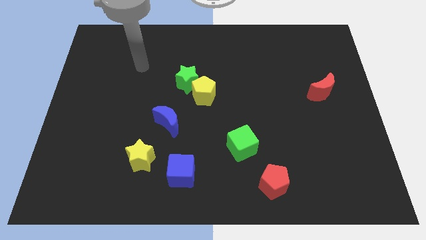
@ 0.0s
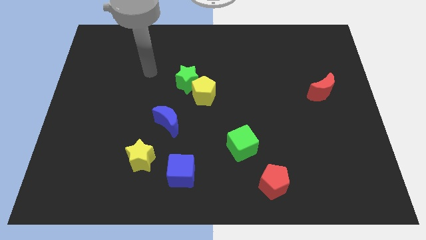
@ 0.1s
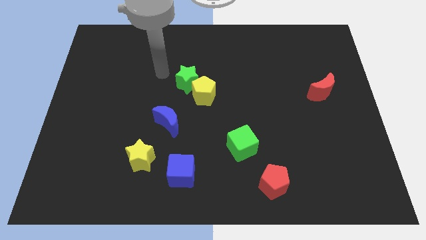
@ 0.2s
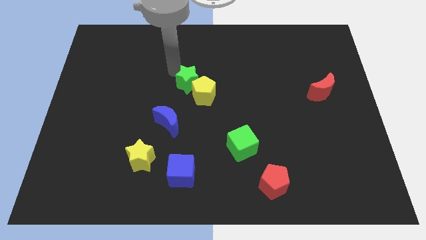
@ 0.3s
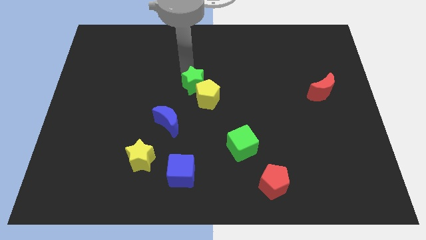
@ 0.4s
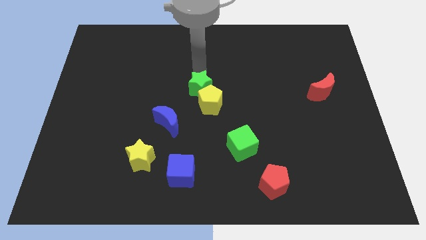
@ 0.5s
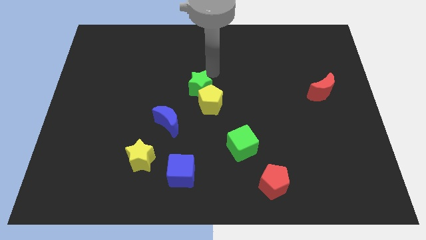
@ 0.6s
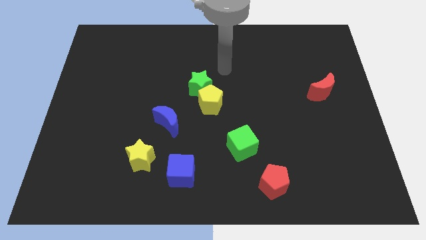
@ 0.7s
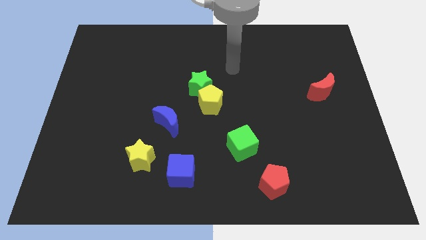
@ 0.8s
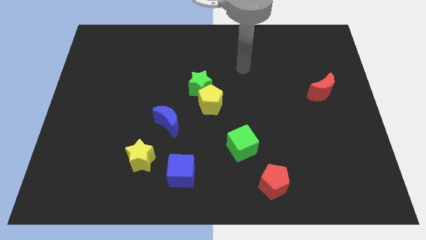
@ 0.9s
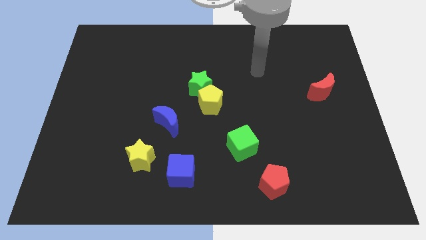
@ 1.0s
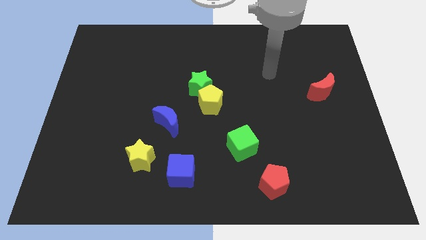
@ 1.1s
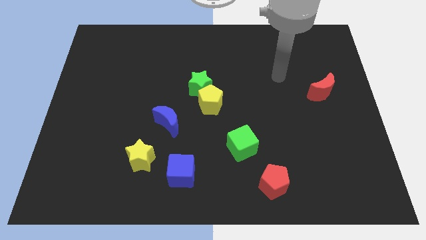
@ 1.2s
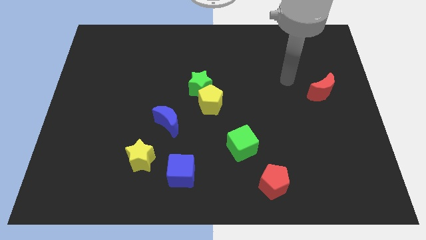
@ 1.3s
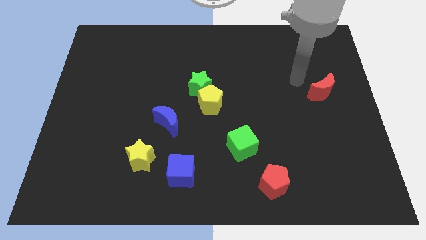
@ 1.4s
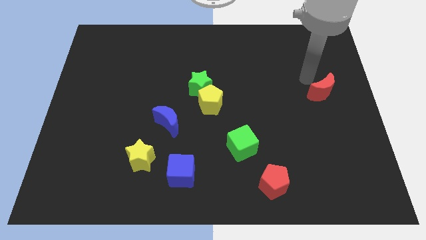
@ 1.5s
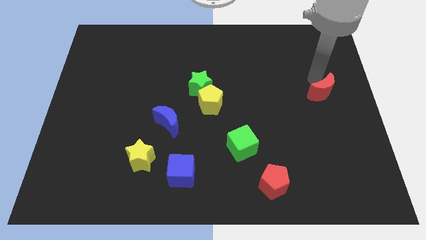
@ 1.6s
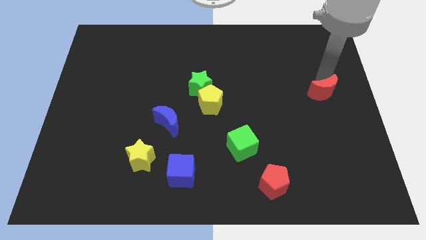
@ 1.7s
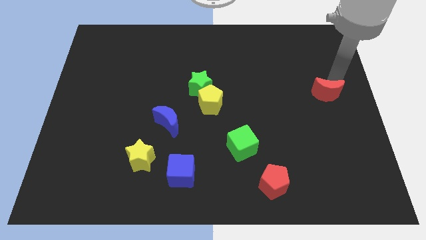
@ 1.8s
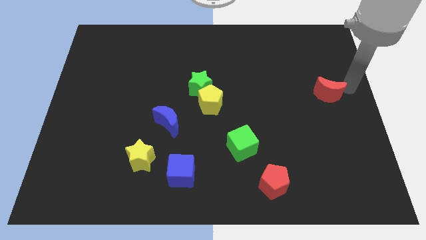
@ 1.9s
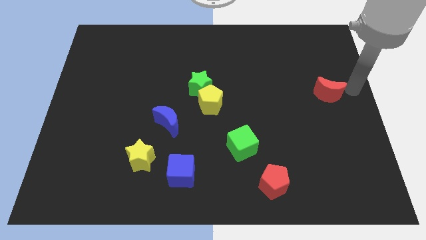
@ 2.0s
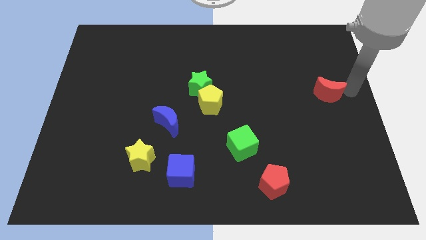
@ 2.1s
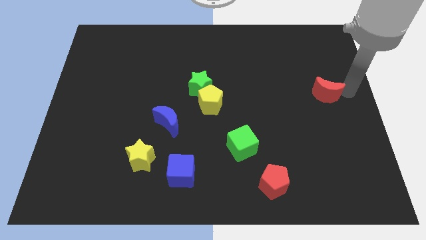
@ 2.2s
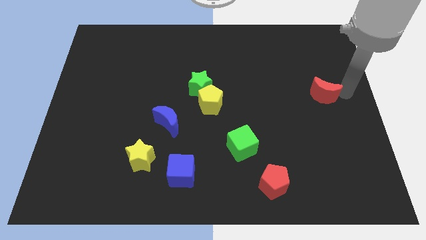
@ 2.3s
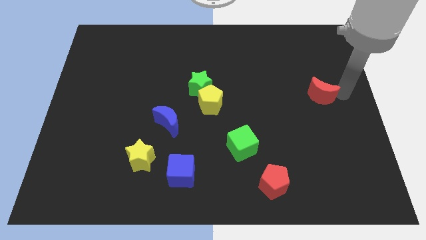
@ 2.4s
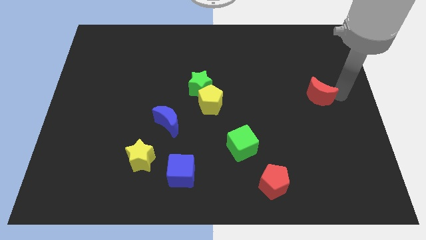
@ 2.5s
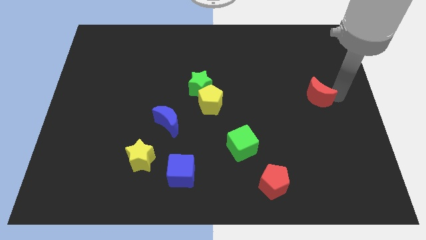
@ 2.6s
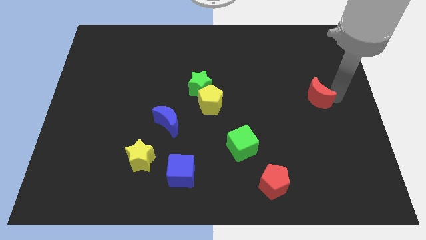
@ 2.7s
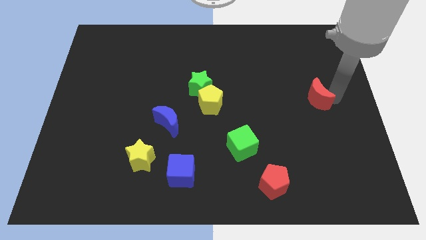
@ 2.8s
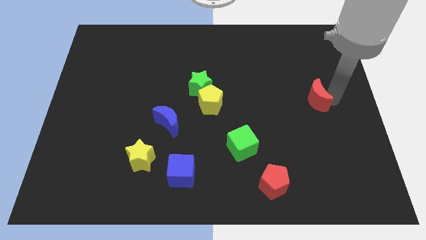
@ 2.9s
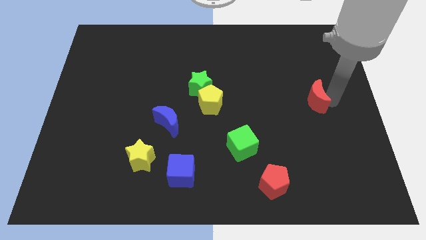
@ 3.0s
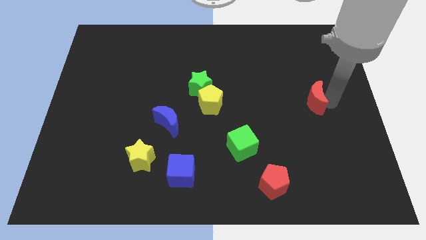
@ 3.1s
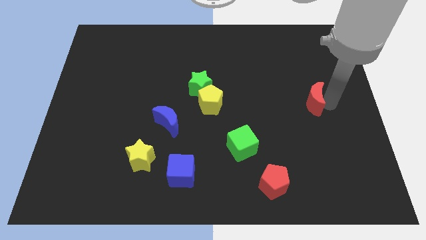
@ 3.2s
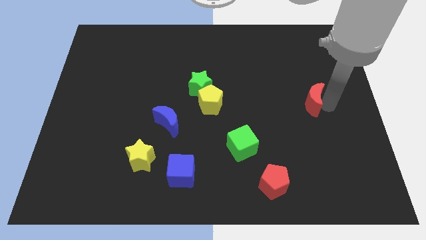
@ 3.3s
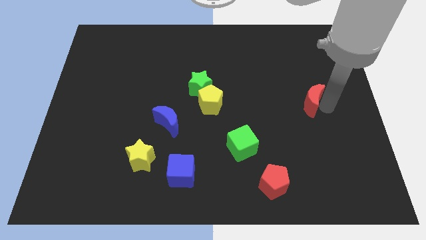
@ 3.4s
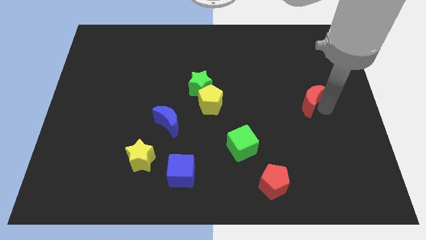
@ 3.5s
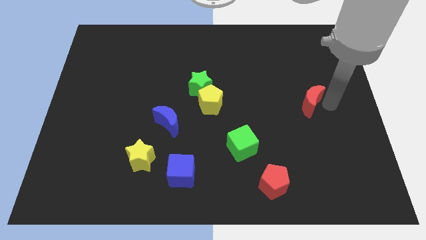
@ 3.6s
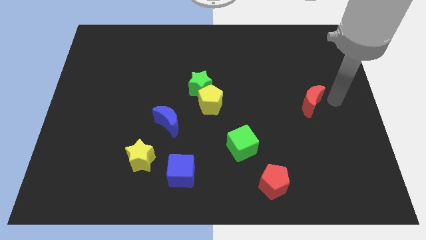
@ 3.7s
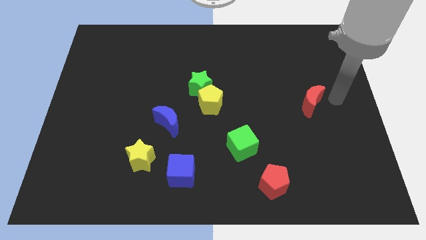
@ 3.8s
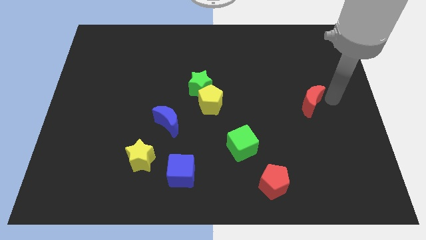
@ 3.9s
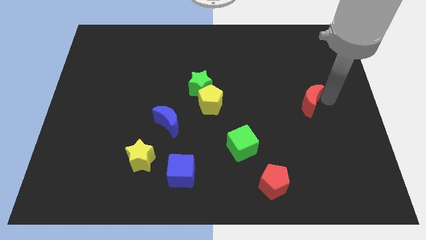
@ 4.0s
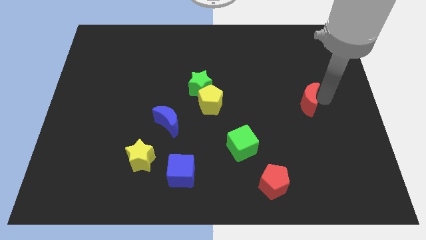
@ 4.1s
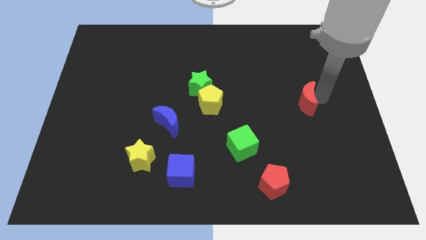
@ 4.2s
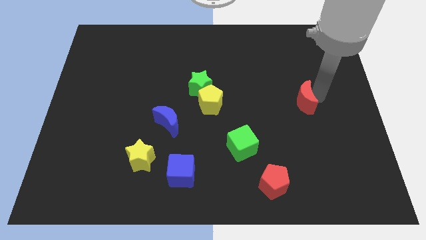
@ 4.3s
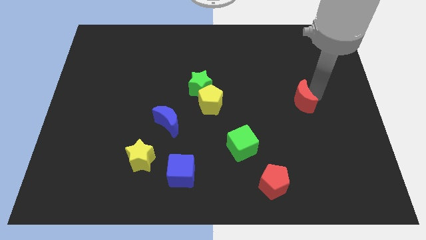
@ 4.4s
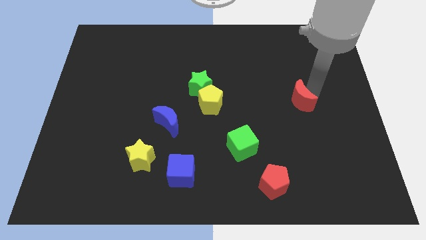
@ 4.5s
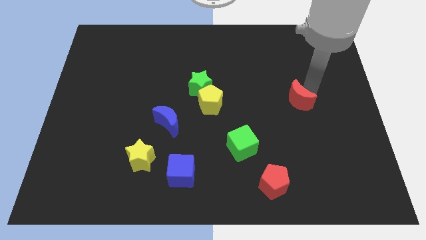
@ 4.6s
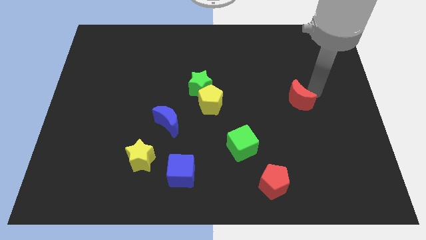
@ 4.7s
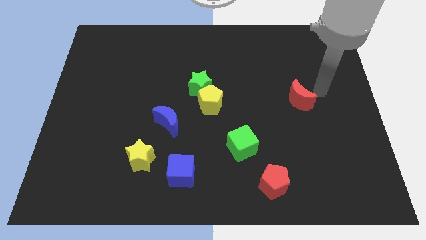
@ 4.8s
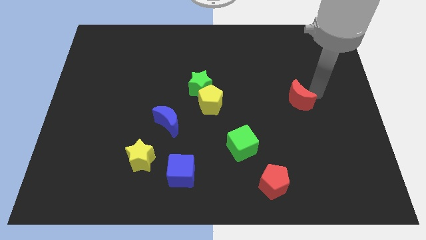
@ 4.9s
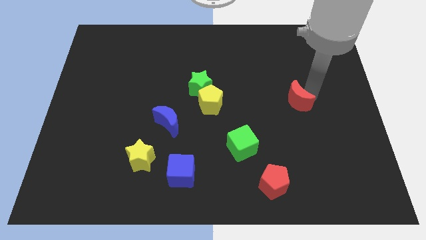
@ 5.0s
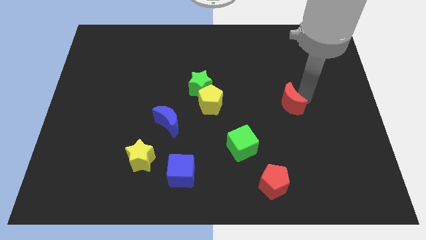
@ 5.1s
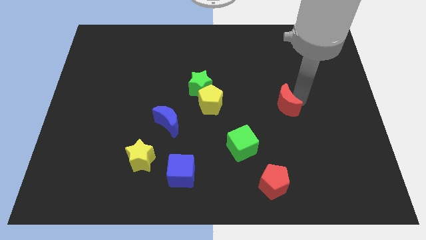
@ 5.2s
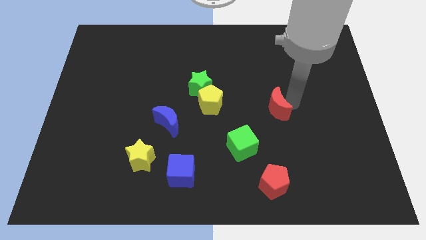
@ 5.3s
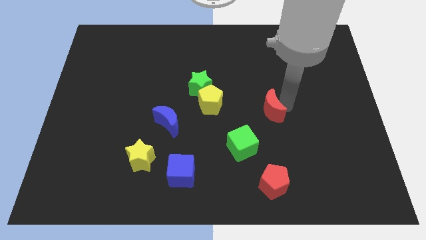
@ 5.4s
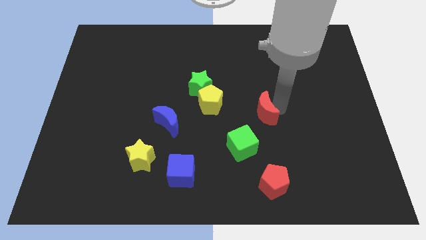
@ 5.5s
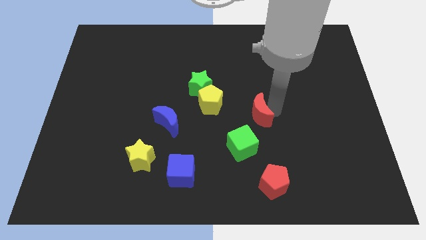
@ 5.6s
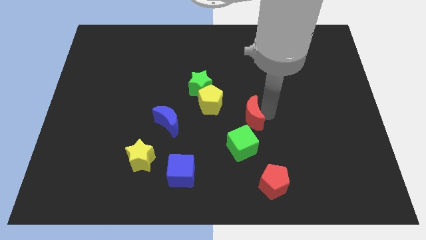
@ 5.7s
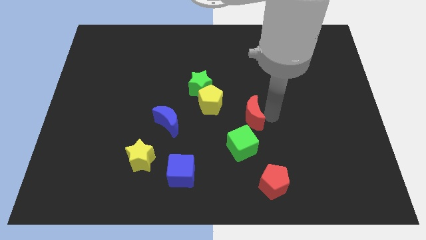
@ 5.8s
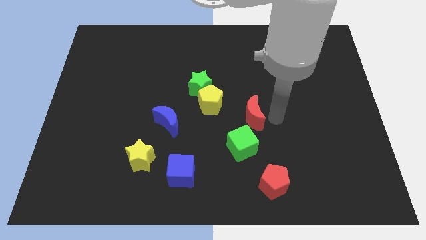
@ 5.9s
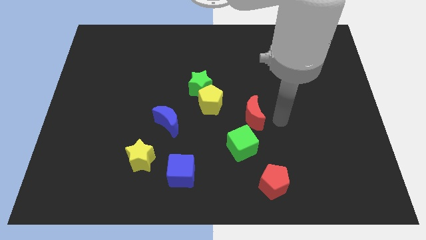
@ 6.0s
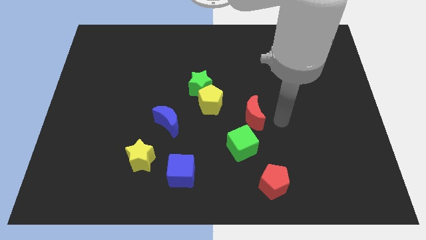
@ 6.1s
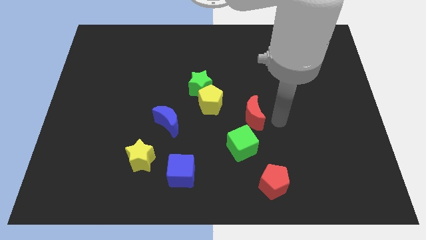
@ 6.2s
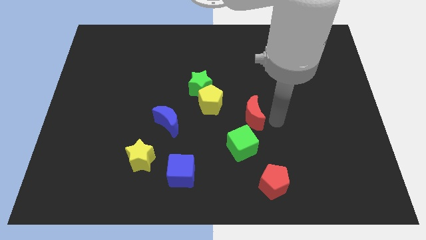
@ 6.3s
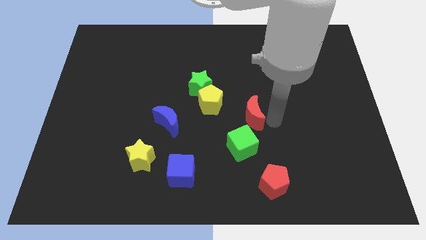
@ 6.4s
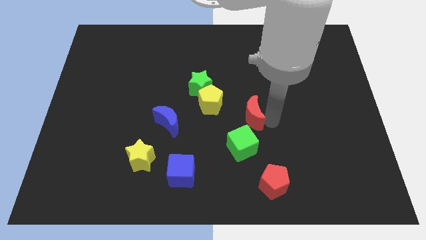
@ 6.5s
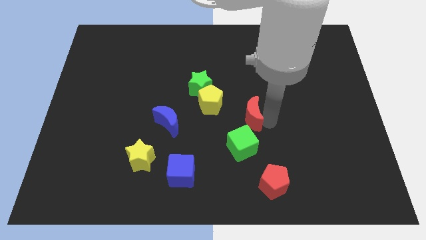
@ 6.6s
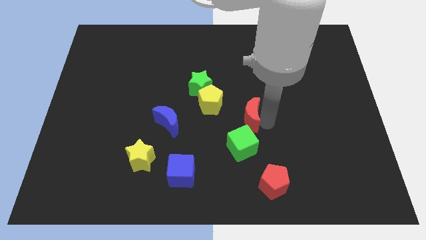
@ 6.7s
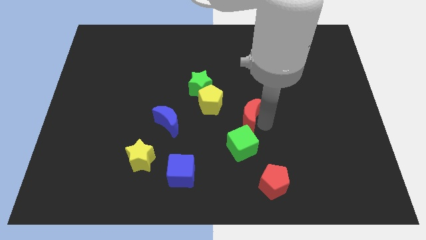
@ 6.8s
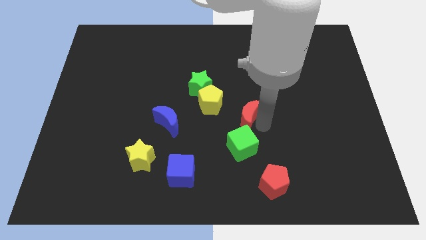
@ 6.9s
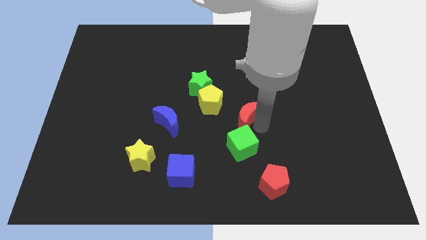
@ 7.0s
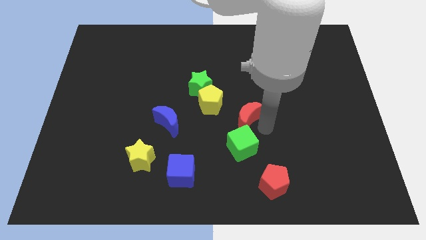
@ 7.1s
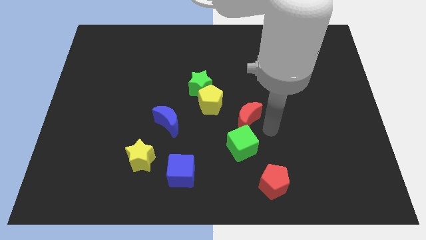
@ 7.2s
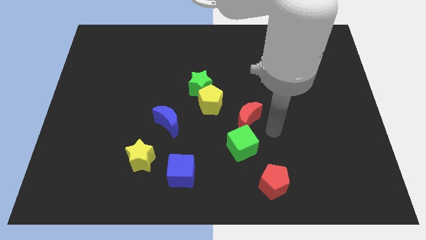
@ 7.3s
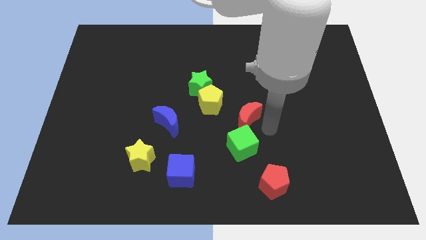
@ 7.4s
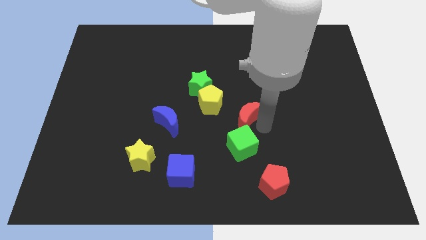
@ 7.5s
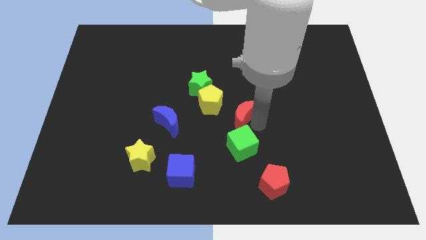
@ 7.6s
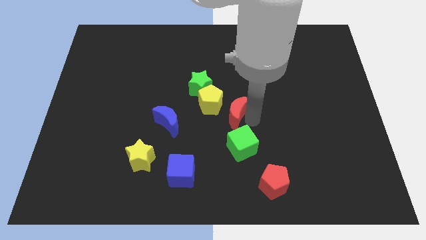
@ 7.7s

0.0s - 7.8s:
push the red moon to the right of the blue moon
